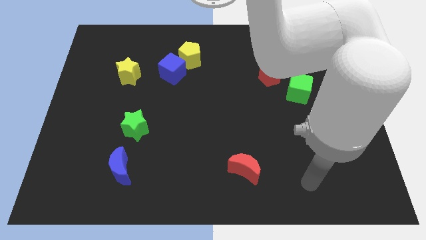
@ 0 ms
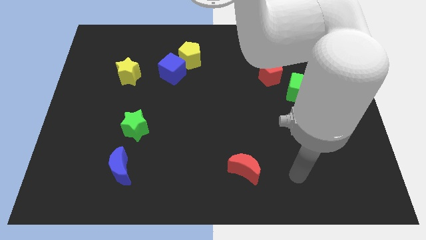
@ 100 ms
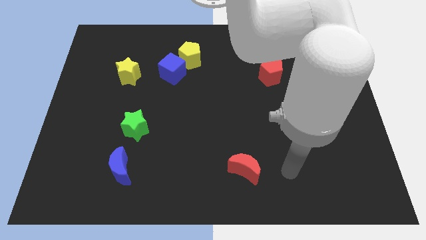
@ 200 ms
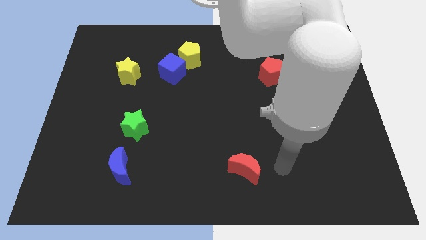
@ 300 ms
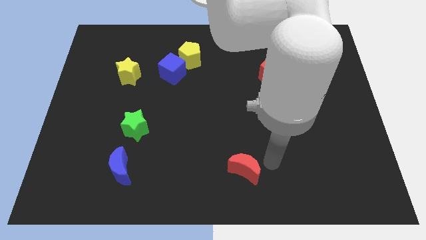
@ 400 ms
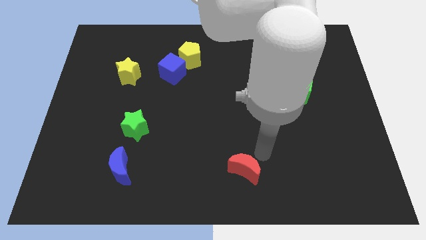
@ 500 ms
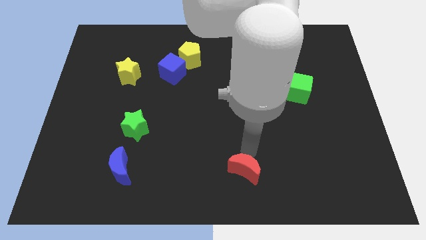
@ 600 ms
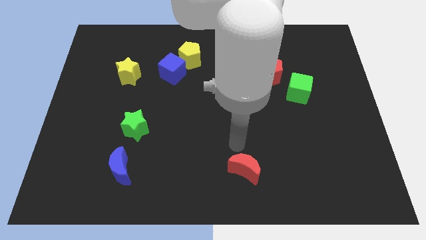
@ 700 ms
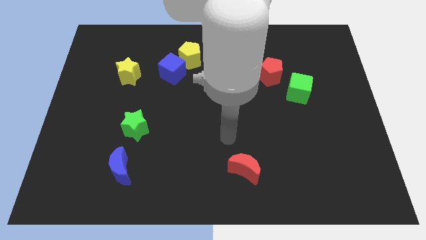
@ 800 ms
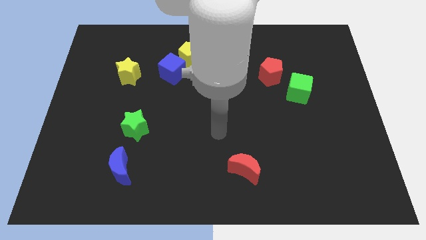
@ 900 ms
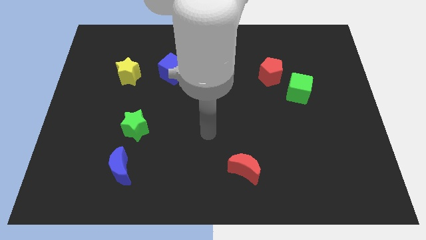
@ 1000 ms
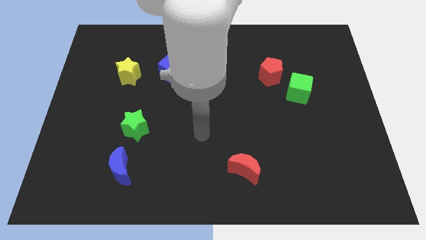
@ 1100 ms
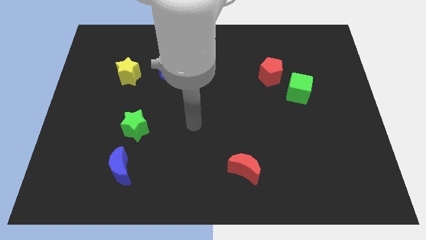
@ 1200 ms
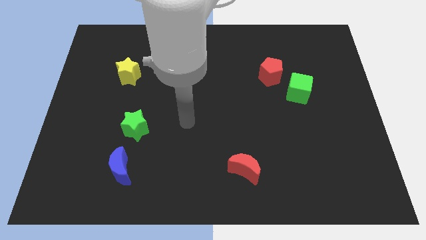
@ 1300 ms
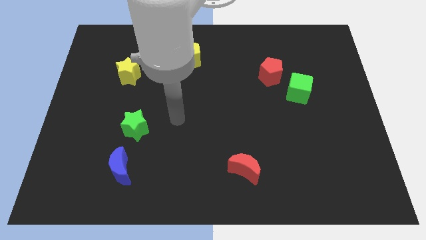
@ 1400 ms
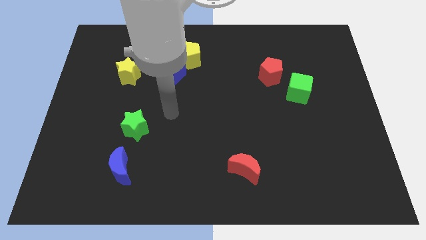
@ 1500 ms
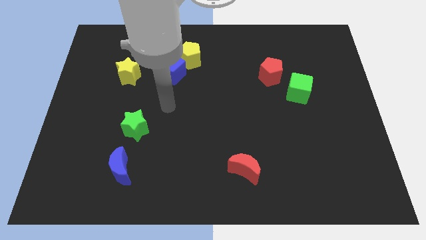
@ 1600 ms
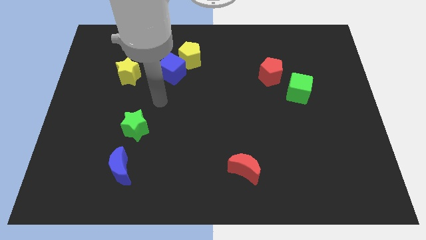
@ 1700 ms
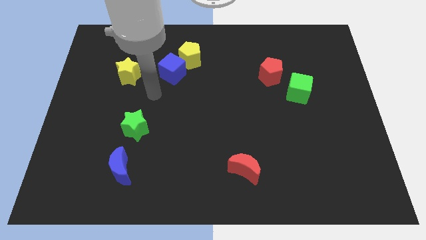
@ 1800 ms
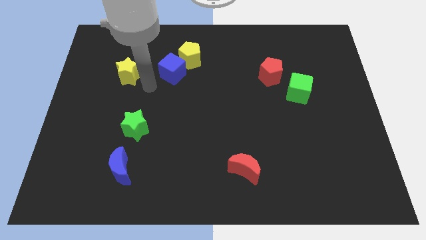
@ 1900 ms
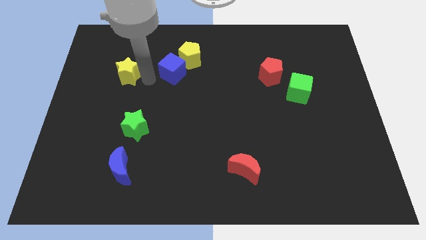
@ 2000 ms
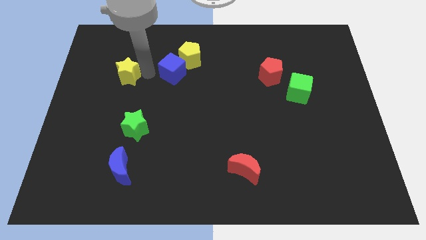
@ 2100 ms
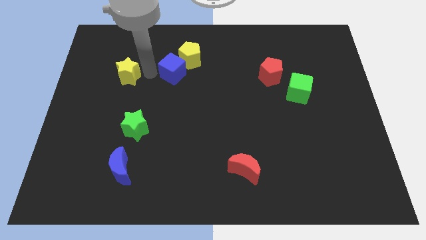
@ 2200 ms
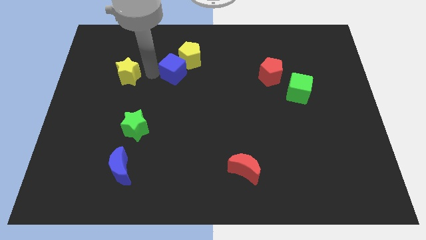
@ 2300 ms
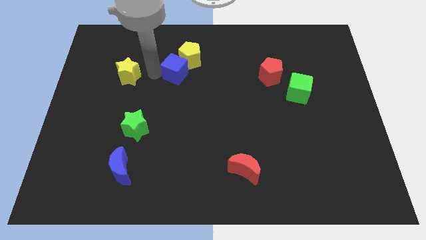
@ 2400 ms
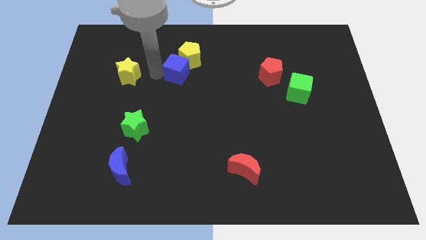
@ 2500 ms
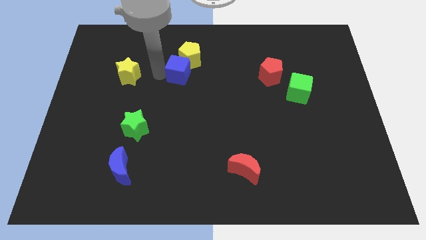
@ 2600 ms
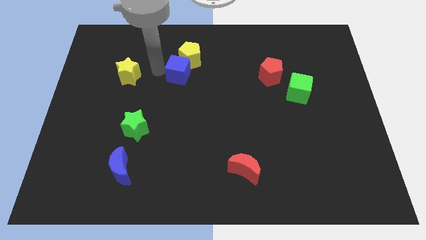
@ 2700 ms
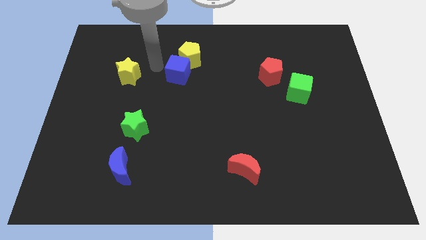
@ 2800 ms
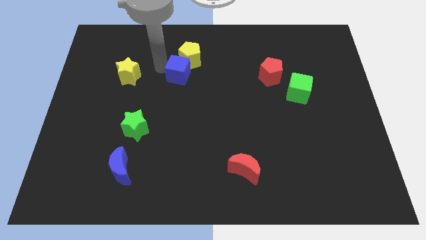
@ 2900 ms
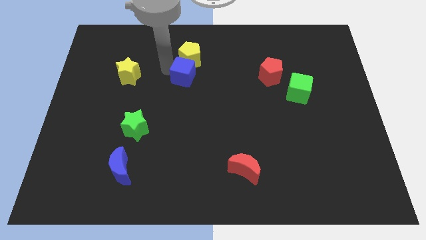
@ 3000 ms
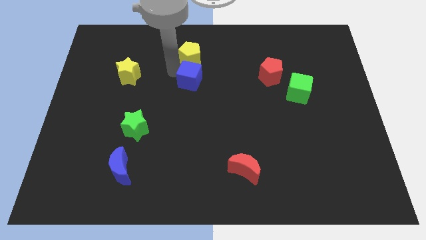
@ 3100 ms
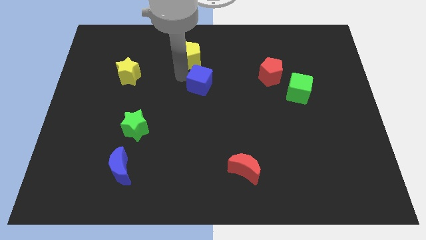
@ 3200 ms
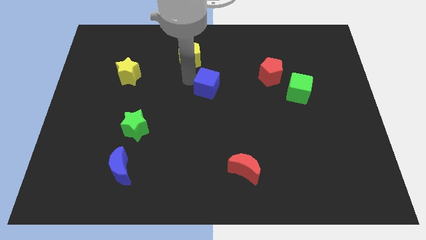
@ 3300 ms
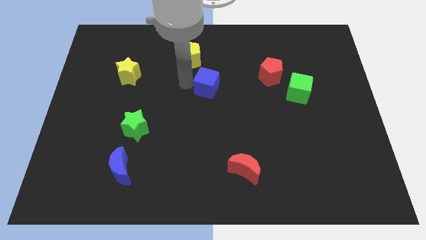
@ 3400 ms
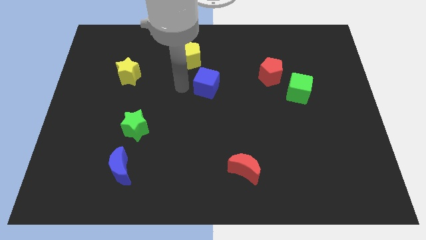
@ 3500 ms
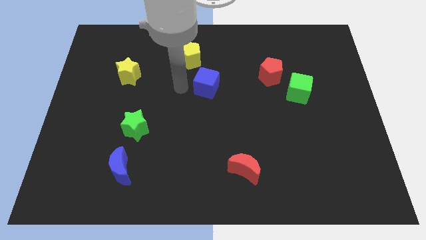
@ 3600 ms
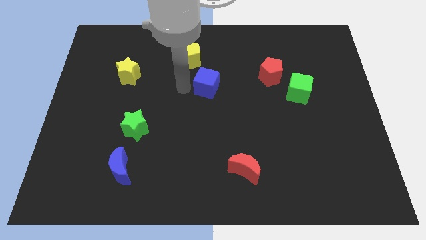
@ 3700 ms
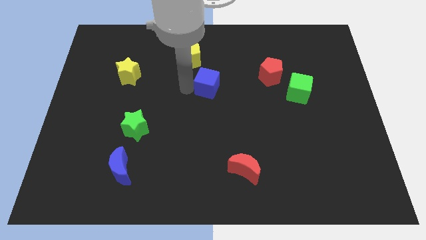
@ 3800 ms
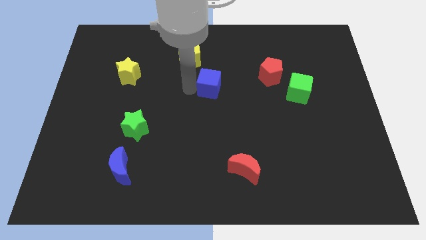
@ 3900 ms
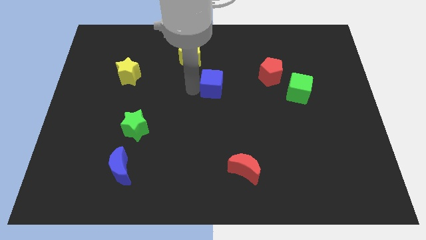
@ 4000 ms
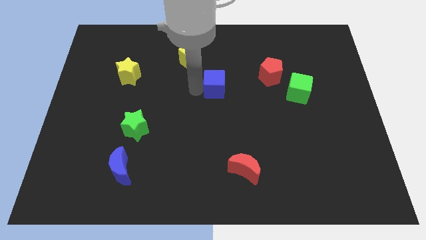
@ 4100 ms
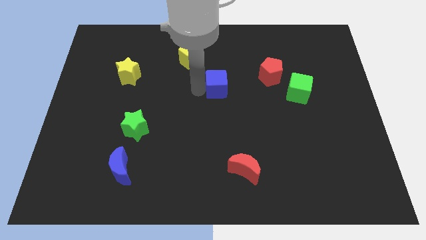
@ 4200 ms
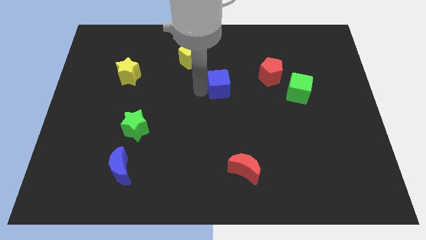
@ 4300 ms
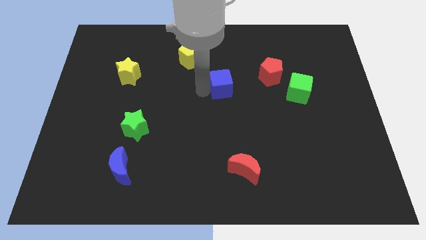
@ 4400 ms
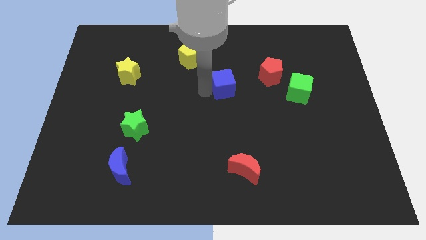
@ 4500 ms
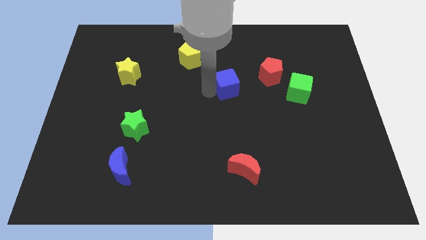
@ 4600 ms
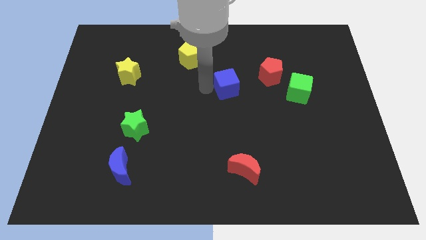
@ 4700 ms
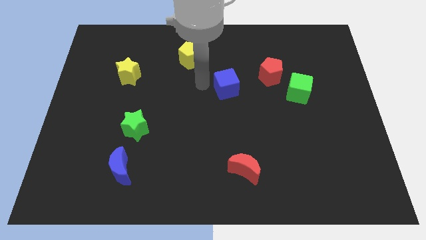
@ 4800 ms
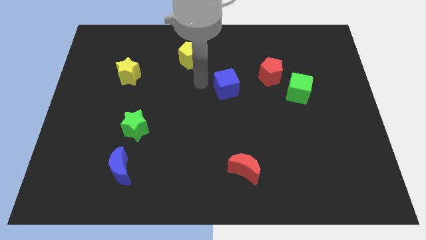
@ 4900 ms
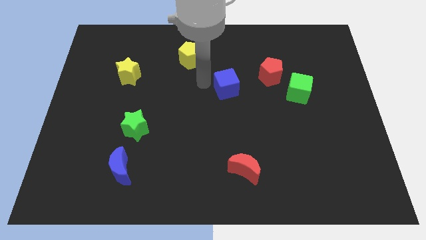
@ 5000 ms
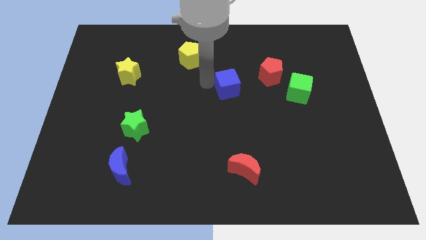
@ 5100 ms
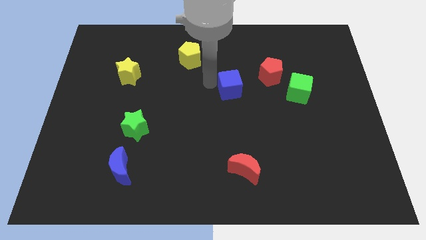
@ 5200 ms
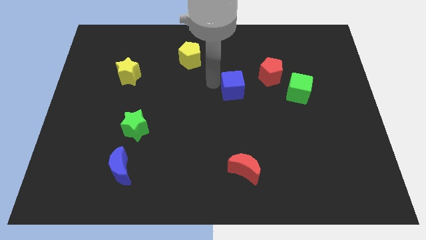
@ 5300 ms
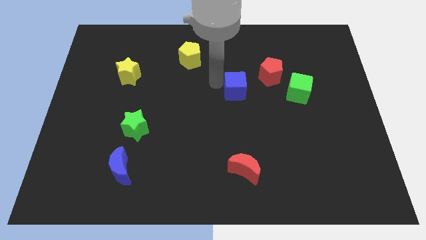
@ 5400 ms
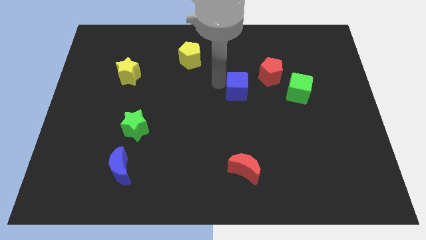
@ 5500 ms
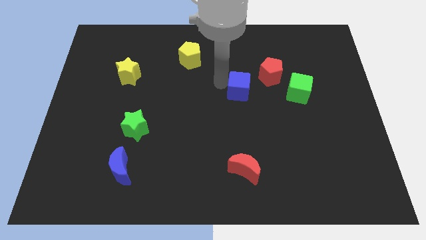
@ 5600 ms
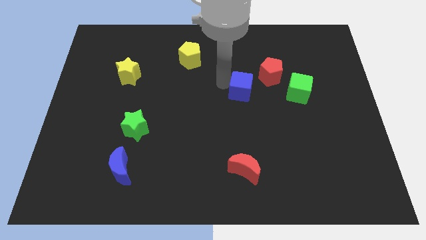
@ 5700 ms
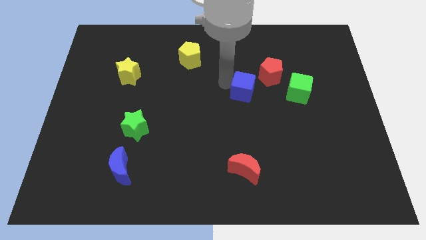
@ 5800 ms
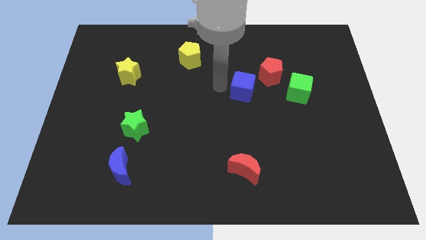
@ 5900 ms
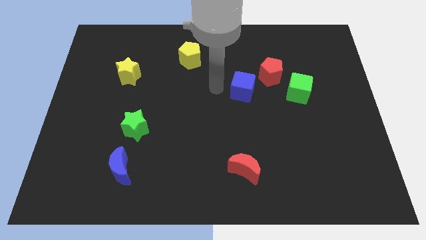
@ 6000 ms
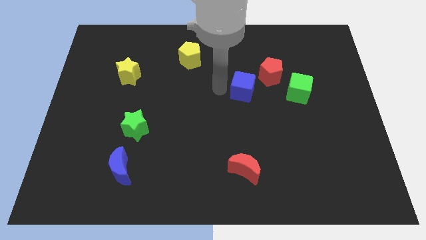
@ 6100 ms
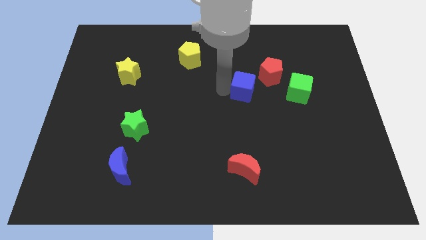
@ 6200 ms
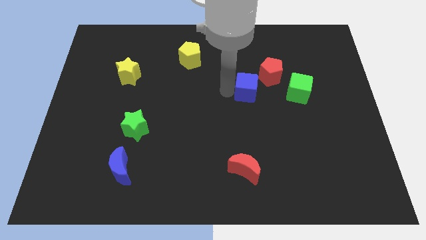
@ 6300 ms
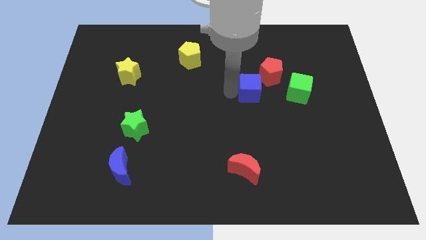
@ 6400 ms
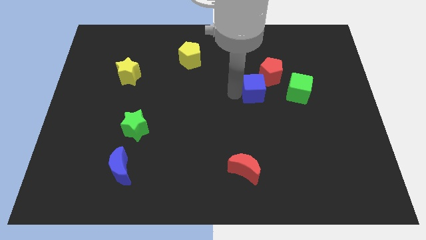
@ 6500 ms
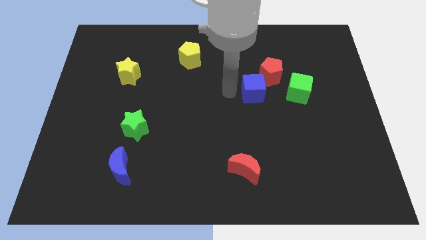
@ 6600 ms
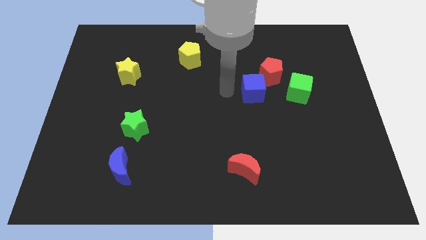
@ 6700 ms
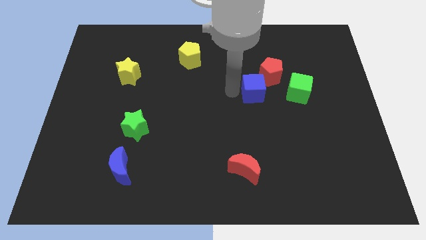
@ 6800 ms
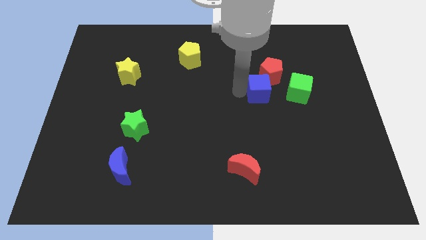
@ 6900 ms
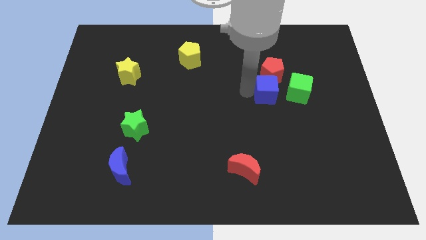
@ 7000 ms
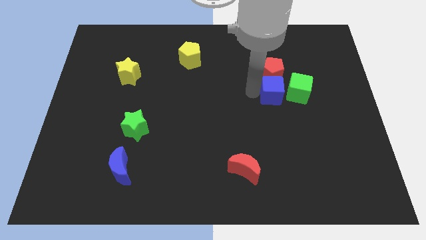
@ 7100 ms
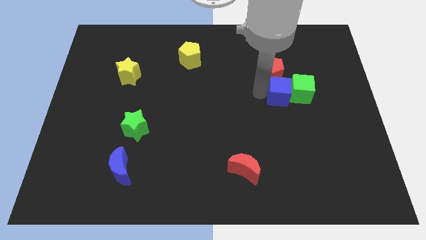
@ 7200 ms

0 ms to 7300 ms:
push the blue cube next to the green cube

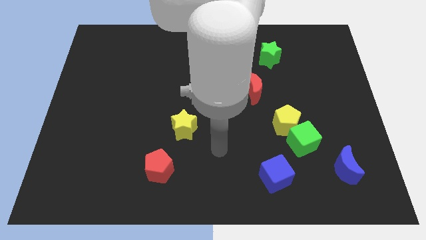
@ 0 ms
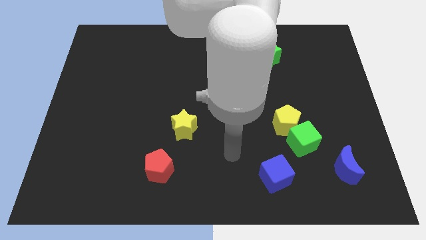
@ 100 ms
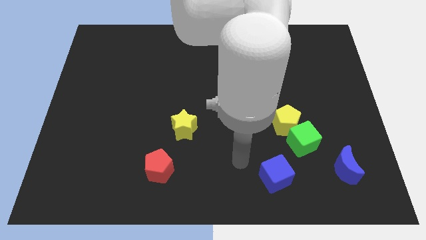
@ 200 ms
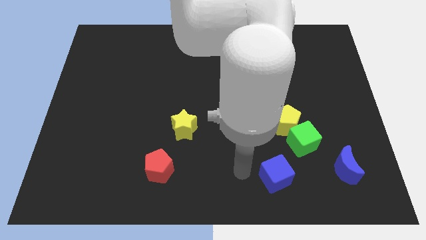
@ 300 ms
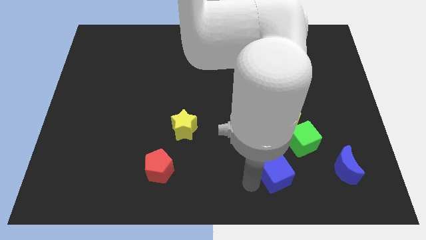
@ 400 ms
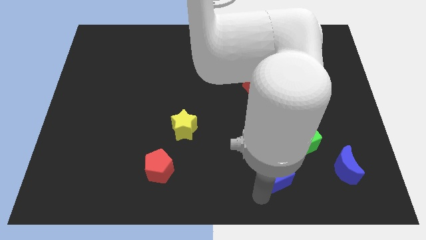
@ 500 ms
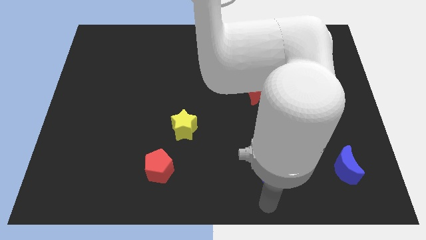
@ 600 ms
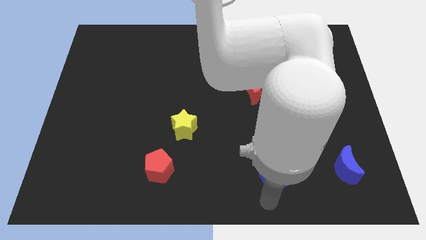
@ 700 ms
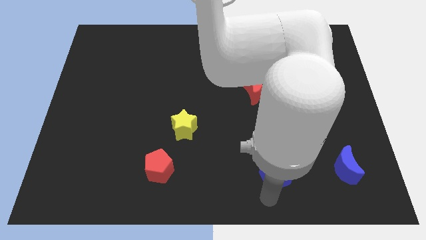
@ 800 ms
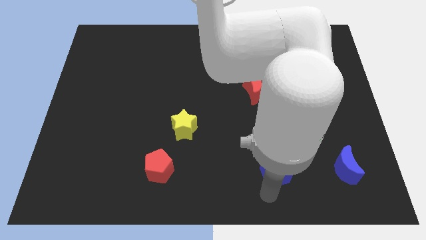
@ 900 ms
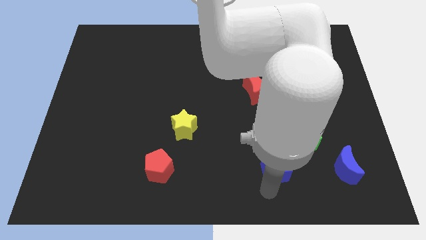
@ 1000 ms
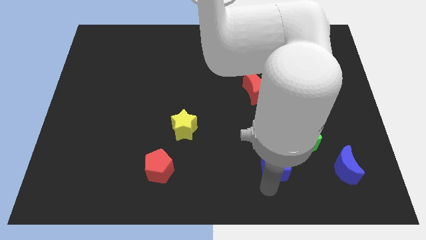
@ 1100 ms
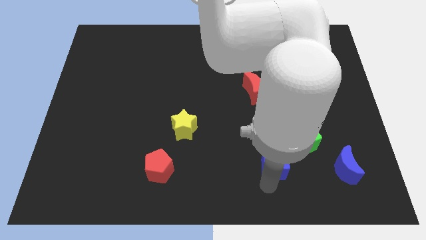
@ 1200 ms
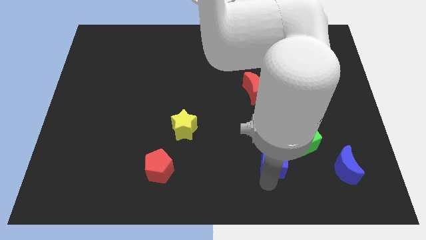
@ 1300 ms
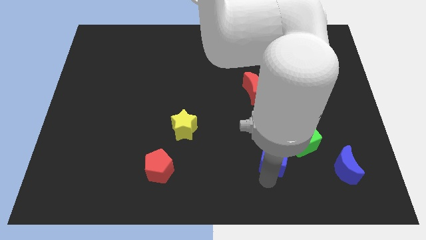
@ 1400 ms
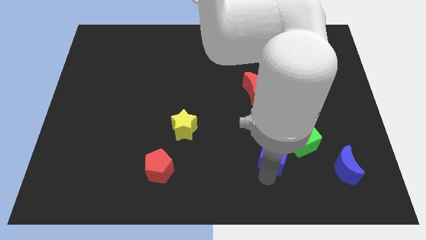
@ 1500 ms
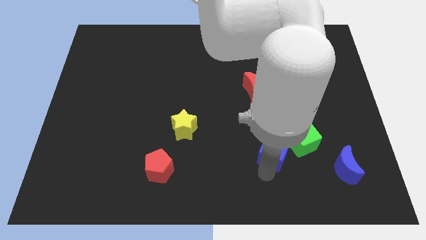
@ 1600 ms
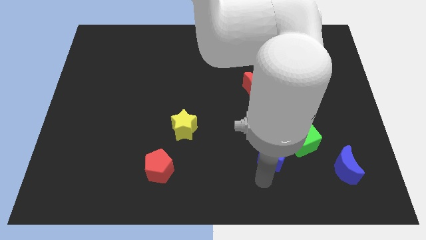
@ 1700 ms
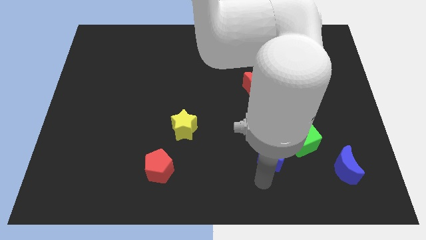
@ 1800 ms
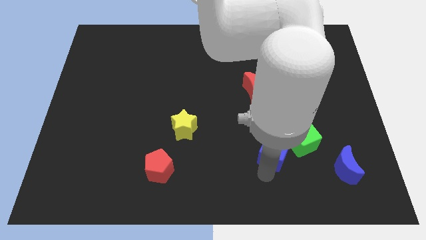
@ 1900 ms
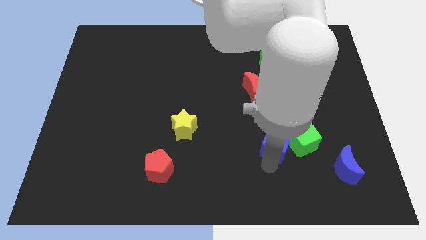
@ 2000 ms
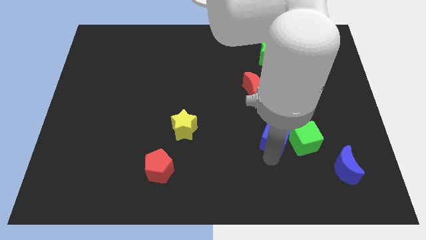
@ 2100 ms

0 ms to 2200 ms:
slide the blue cube to the yellow pentagon
